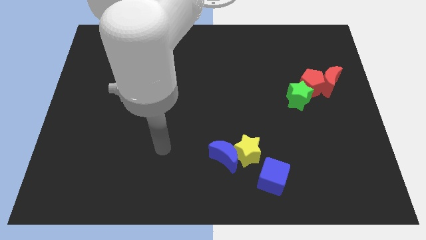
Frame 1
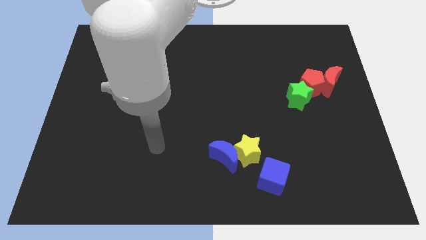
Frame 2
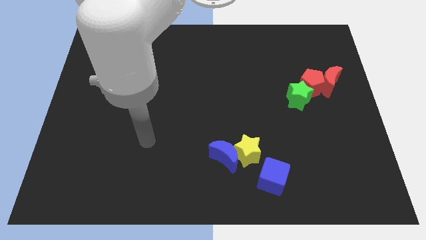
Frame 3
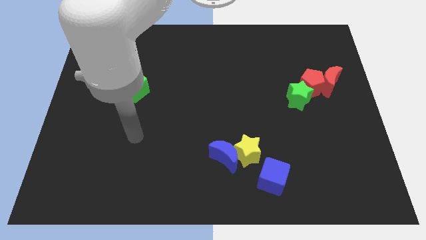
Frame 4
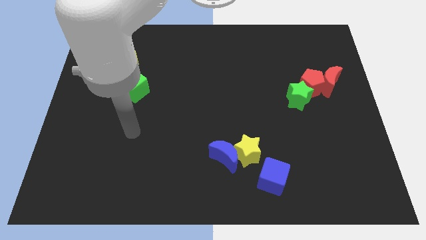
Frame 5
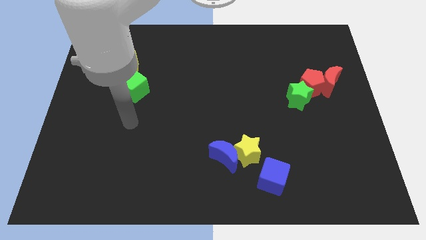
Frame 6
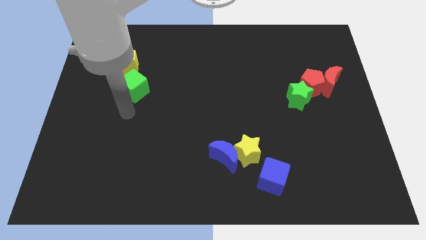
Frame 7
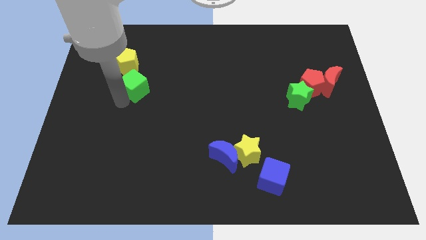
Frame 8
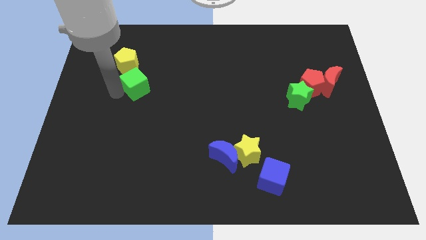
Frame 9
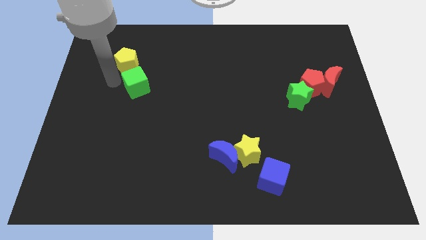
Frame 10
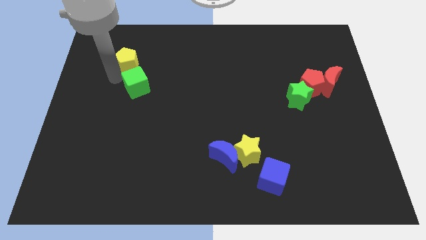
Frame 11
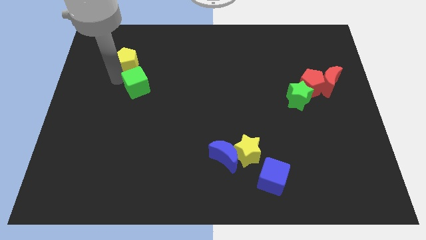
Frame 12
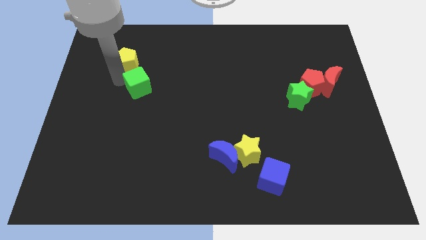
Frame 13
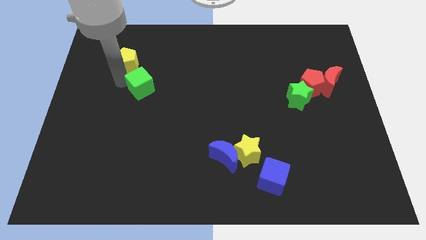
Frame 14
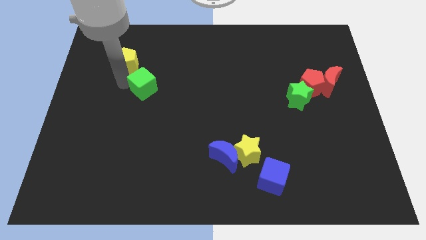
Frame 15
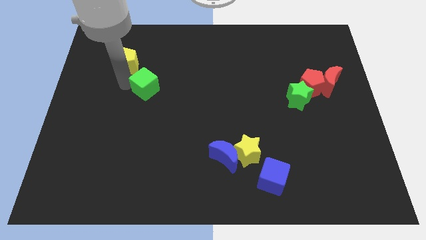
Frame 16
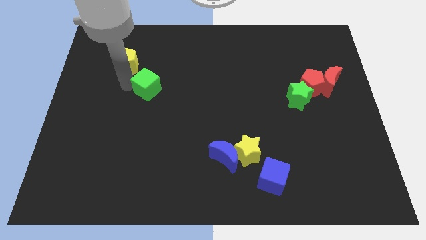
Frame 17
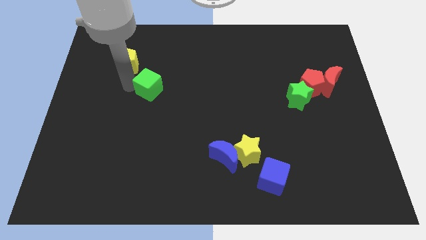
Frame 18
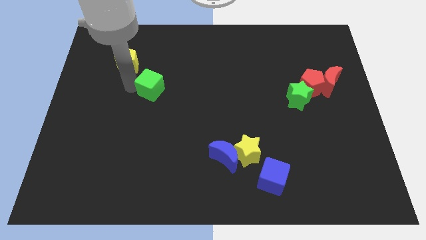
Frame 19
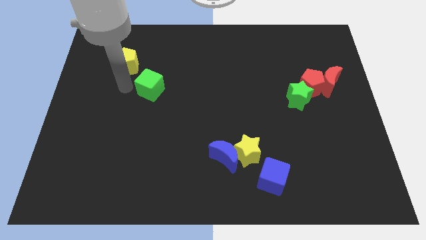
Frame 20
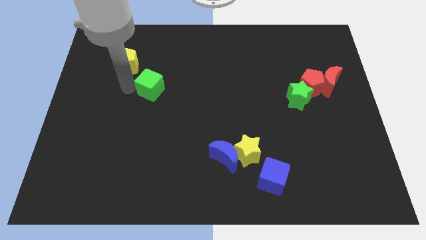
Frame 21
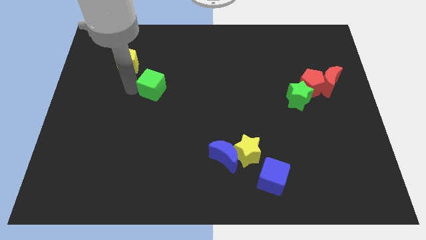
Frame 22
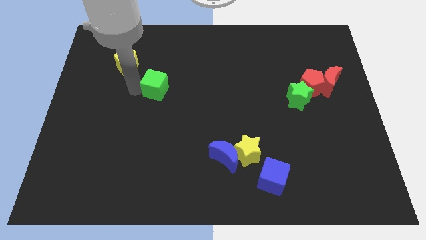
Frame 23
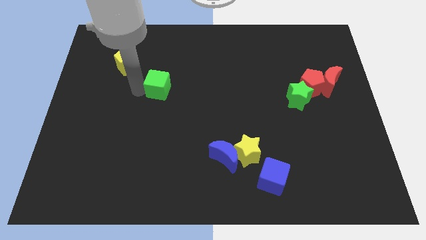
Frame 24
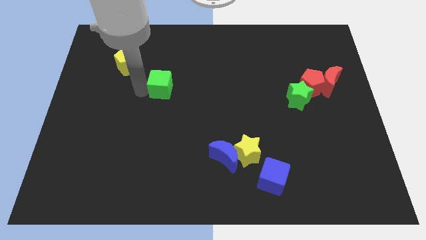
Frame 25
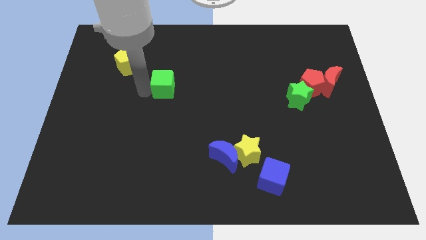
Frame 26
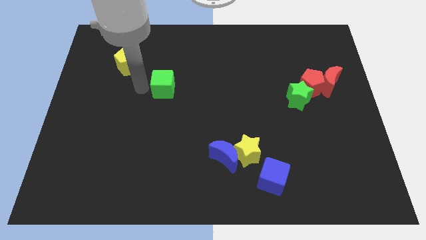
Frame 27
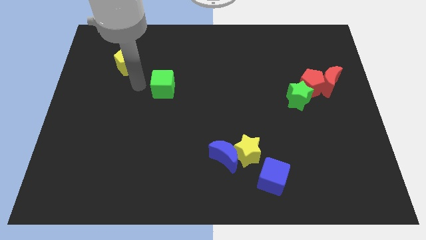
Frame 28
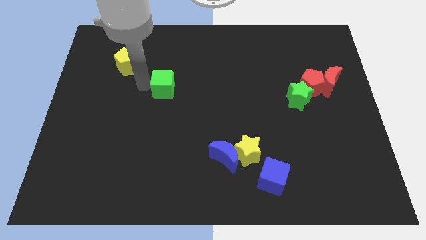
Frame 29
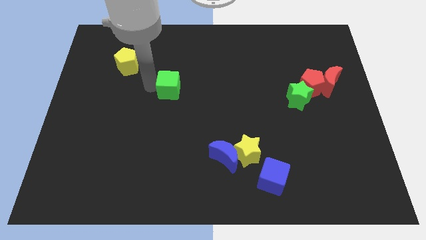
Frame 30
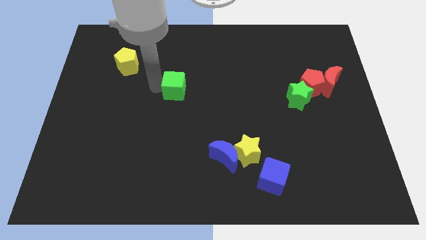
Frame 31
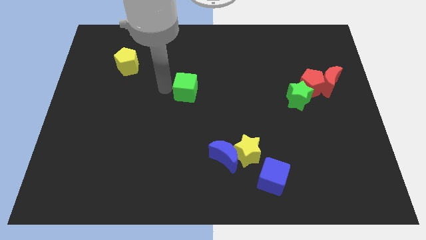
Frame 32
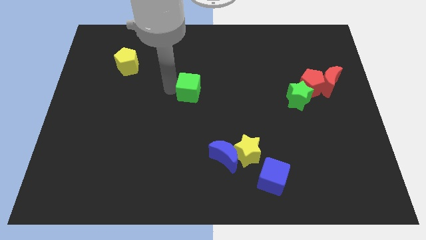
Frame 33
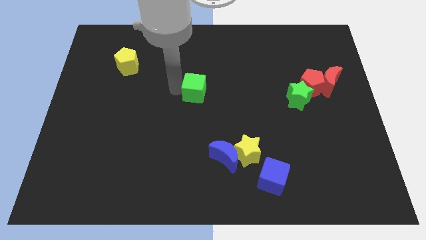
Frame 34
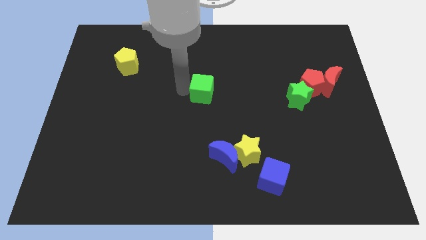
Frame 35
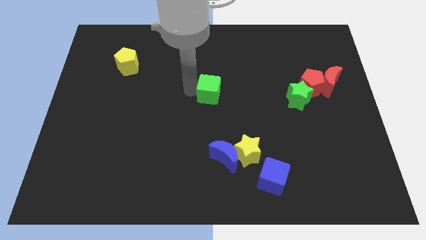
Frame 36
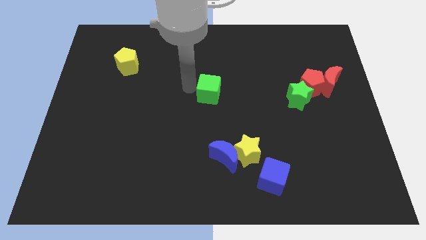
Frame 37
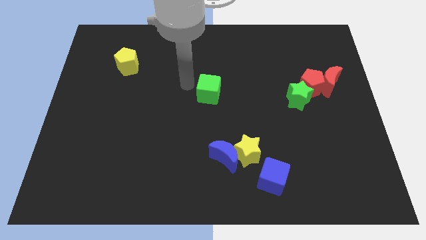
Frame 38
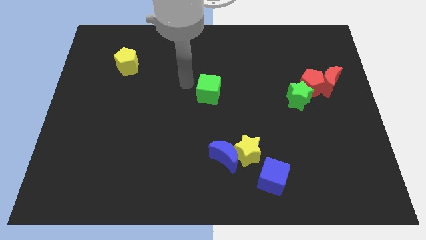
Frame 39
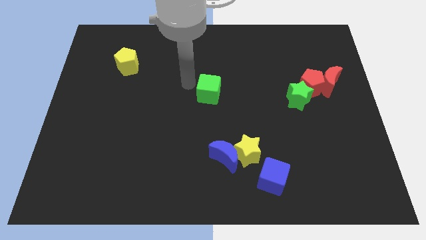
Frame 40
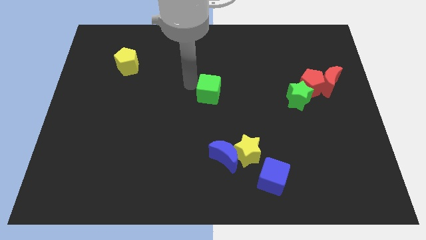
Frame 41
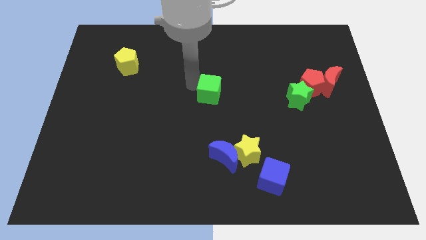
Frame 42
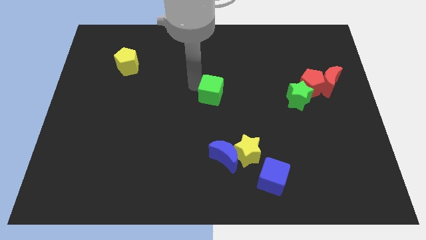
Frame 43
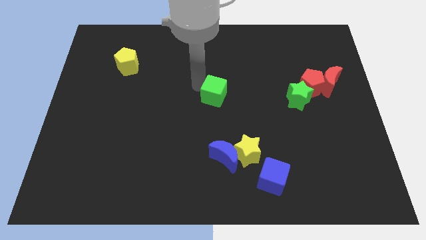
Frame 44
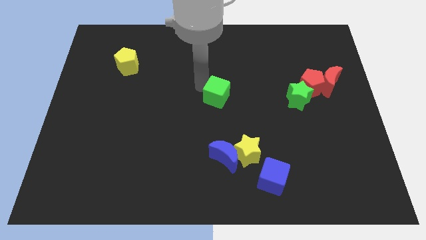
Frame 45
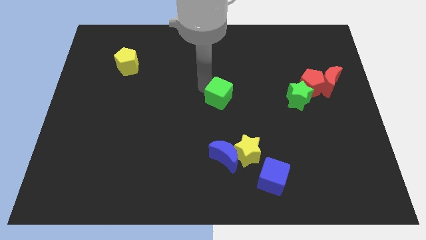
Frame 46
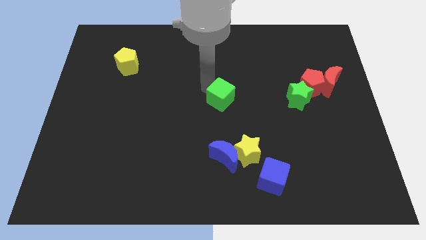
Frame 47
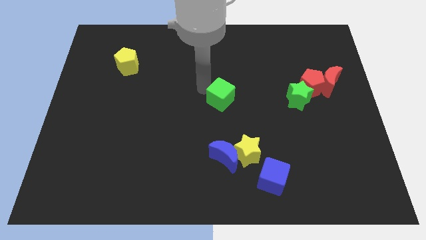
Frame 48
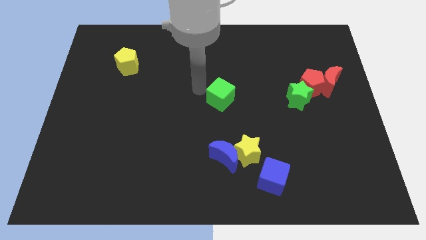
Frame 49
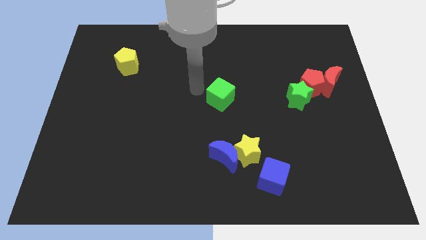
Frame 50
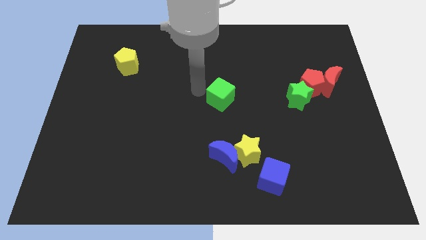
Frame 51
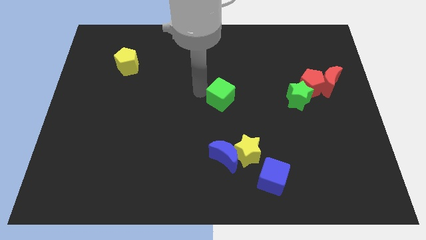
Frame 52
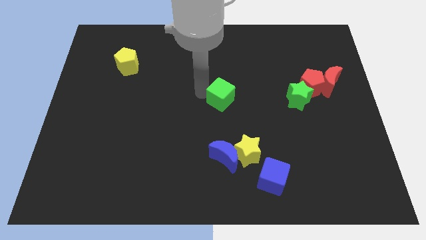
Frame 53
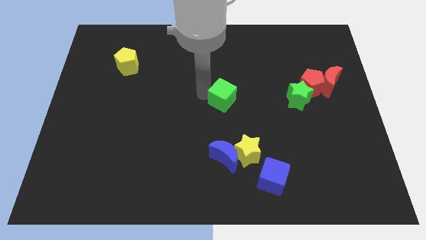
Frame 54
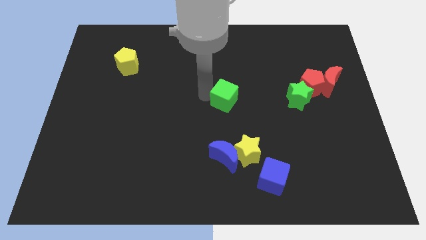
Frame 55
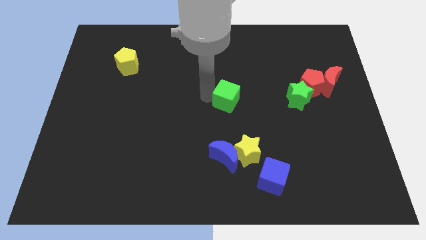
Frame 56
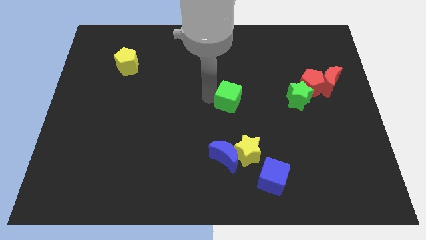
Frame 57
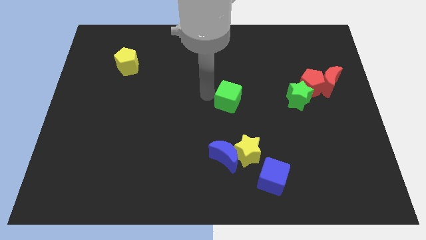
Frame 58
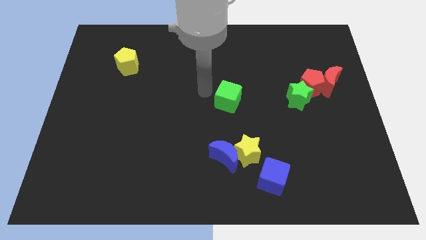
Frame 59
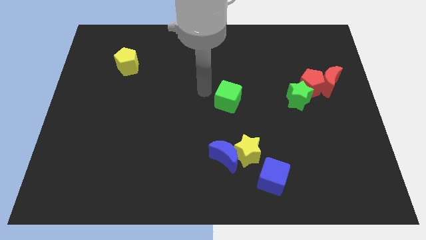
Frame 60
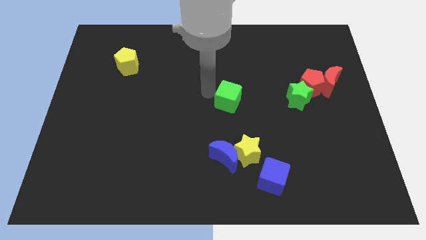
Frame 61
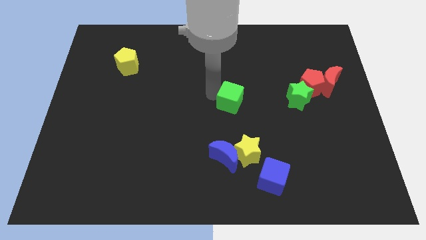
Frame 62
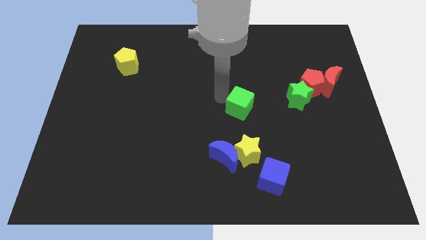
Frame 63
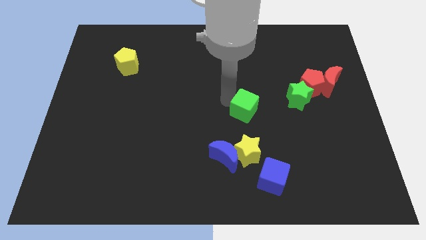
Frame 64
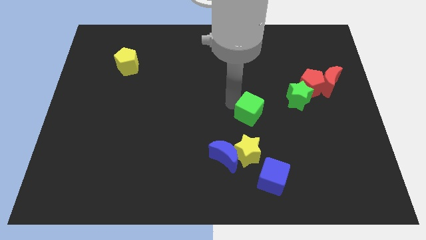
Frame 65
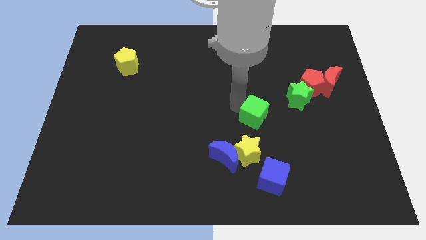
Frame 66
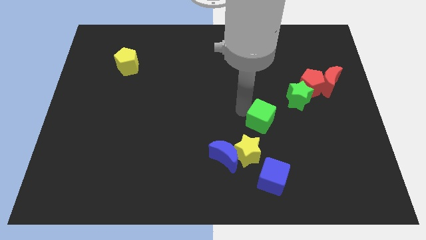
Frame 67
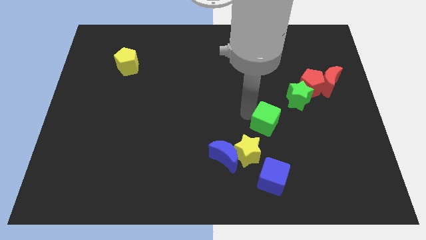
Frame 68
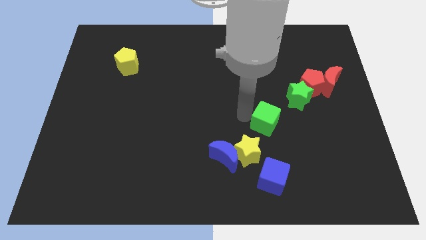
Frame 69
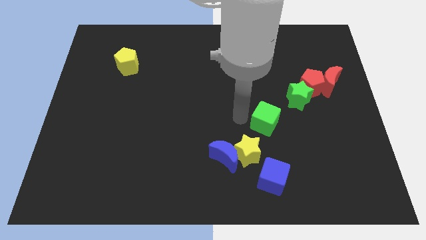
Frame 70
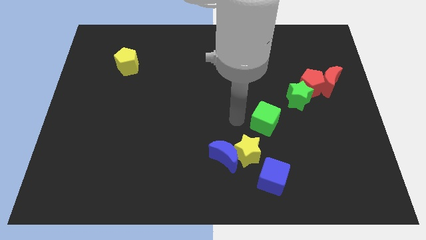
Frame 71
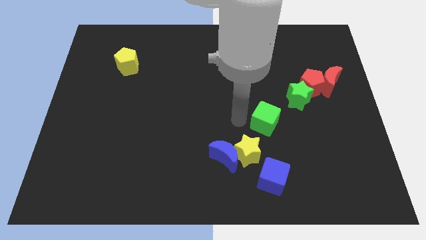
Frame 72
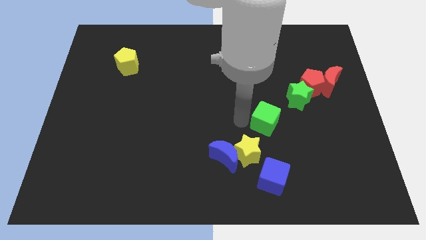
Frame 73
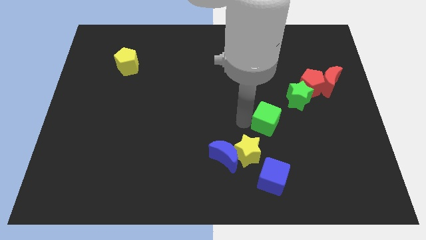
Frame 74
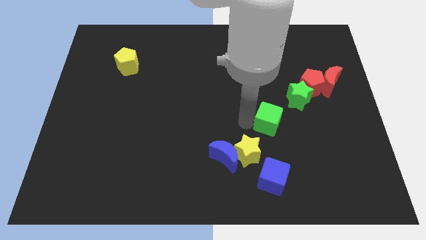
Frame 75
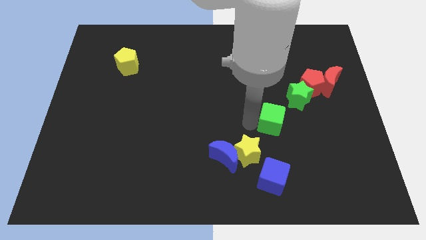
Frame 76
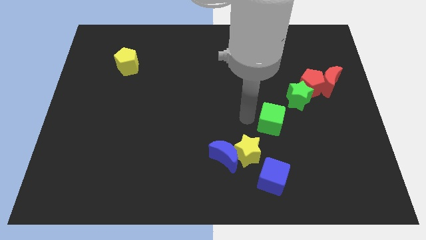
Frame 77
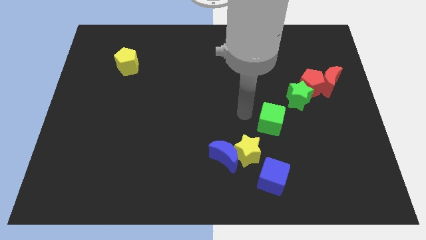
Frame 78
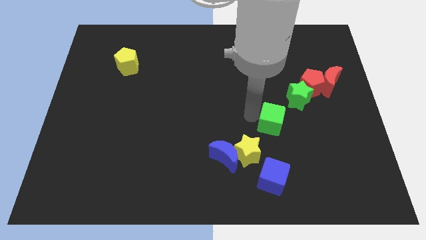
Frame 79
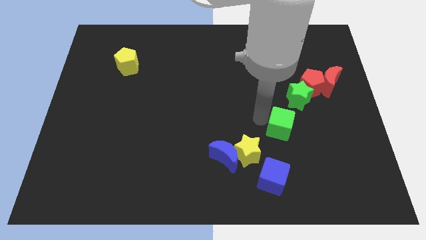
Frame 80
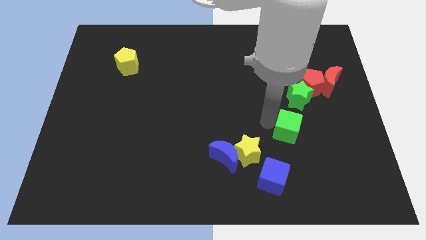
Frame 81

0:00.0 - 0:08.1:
put the green cube to the bottom side of the green star
